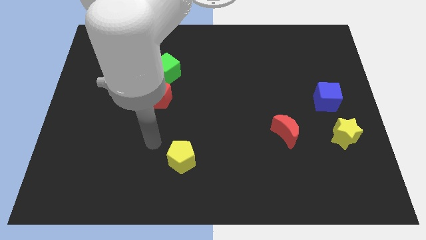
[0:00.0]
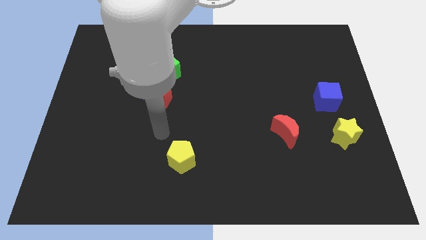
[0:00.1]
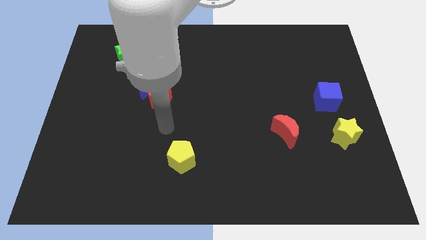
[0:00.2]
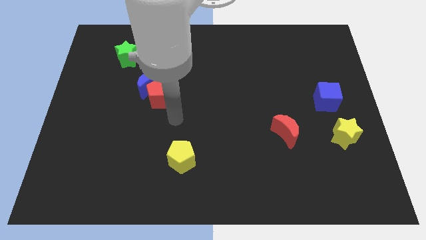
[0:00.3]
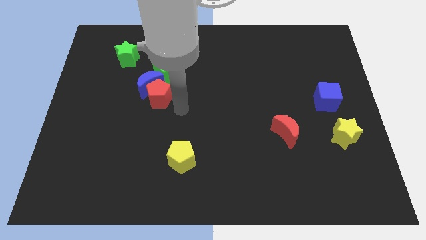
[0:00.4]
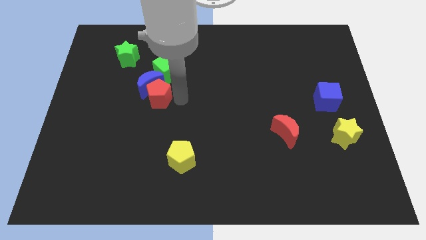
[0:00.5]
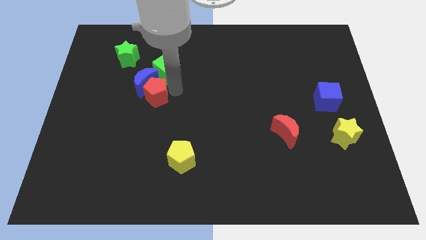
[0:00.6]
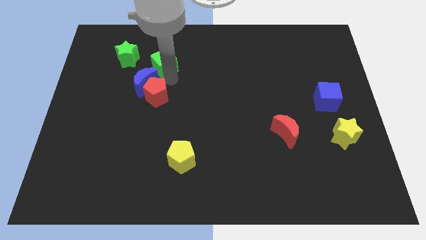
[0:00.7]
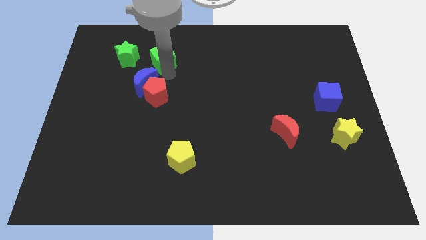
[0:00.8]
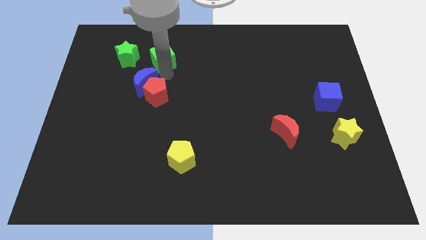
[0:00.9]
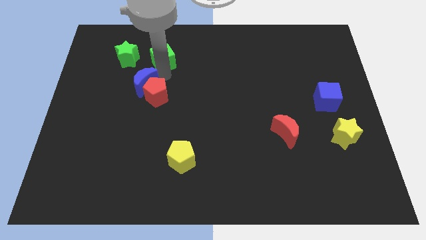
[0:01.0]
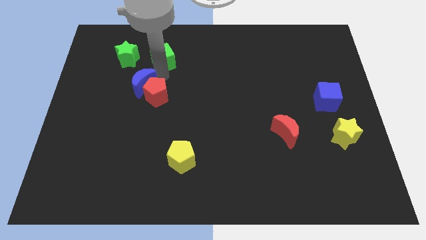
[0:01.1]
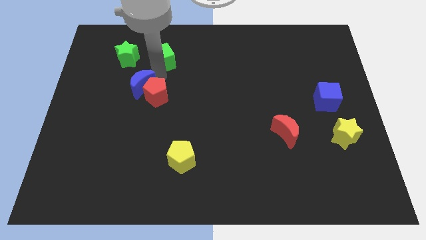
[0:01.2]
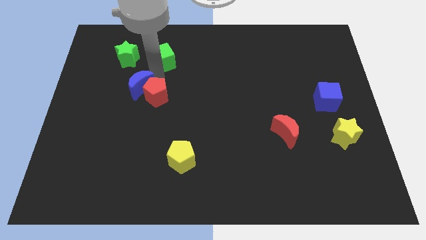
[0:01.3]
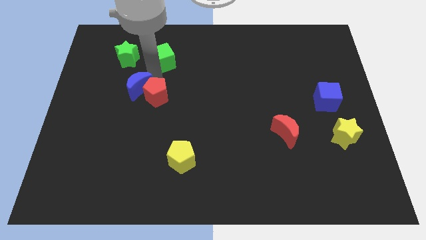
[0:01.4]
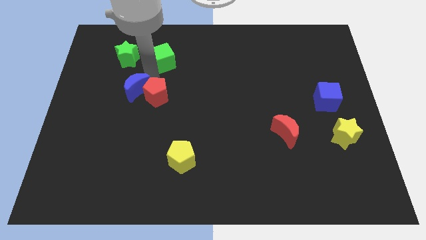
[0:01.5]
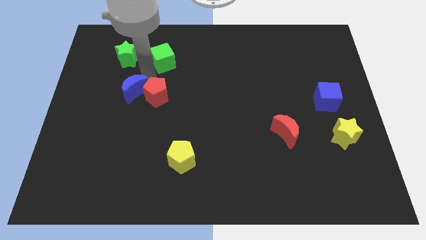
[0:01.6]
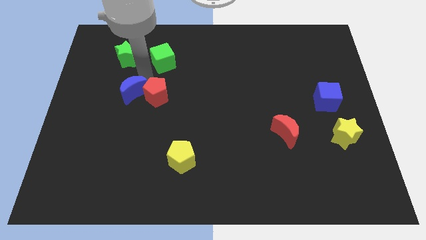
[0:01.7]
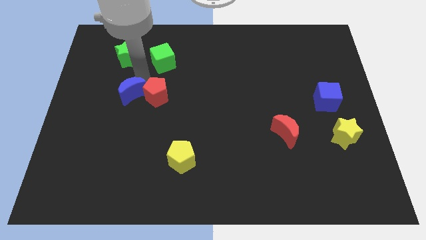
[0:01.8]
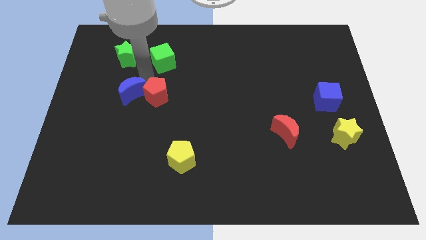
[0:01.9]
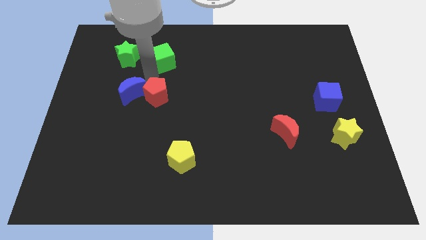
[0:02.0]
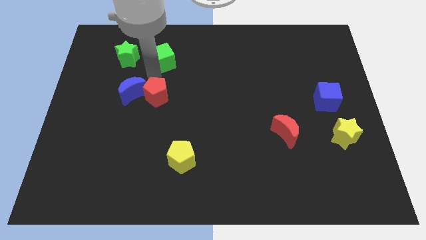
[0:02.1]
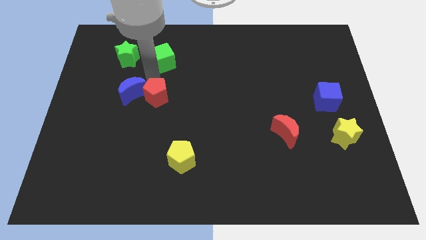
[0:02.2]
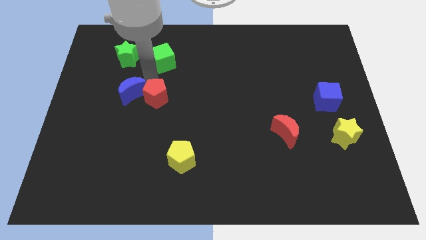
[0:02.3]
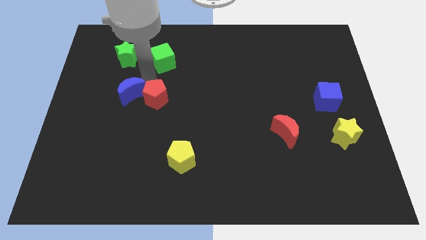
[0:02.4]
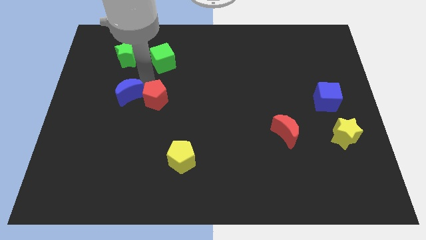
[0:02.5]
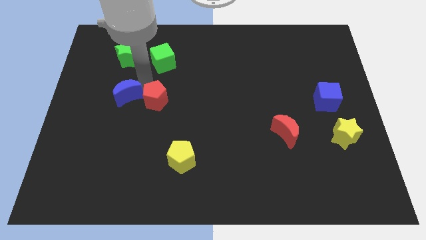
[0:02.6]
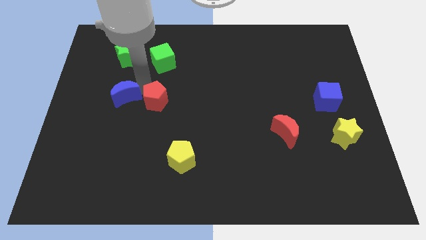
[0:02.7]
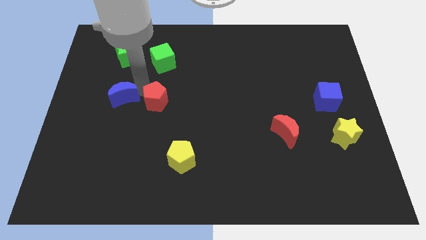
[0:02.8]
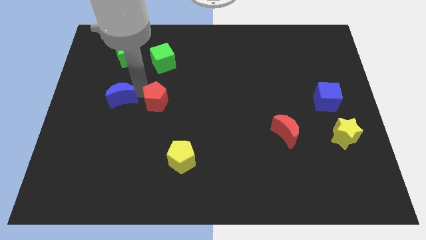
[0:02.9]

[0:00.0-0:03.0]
separate the blue moon from the red pentagon and green cube

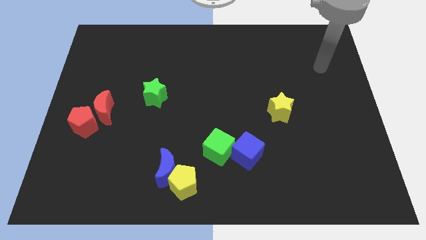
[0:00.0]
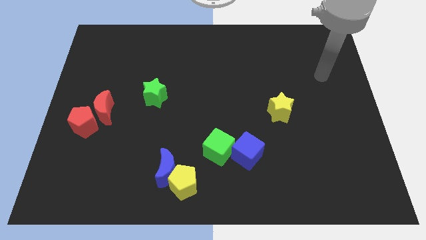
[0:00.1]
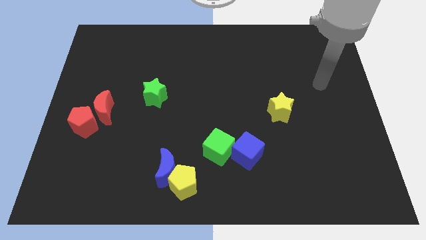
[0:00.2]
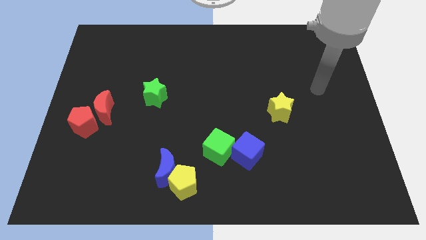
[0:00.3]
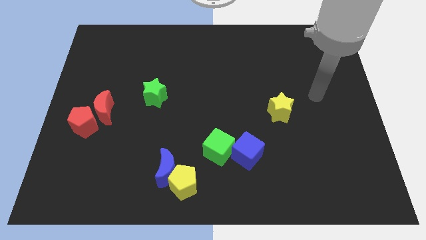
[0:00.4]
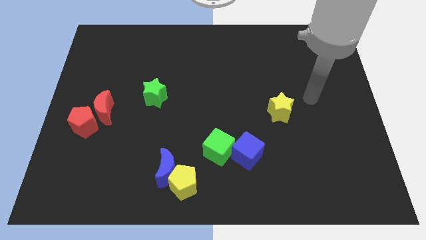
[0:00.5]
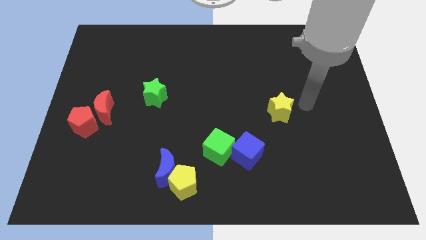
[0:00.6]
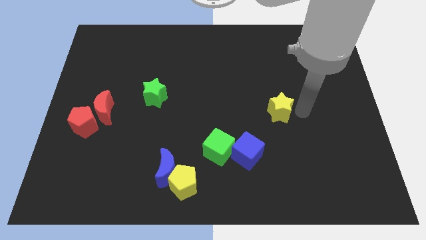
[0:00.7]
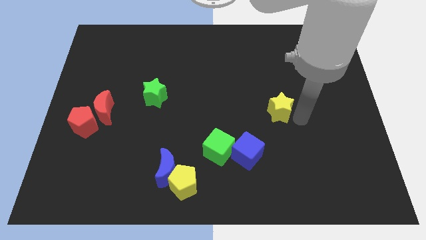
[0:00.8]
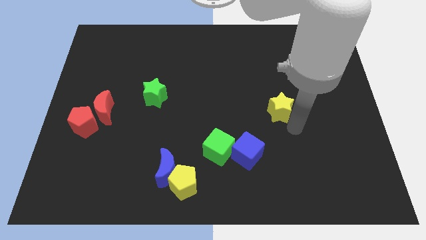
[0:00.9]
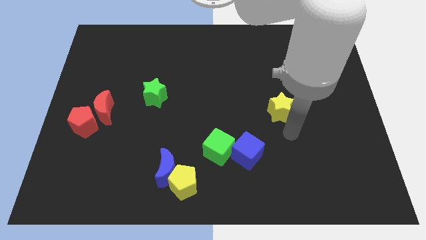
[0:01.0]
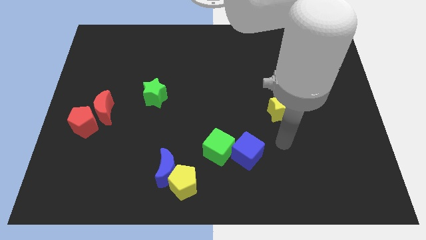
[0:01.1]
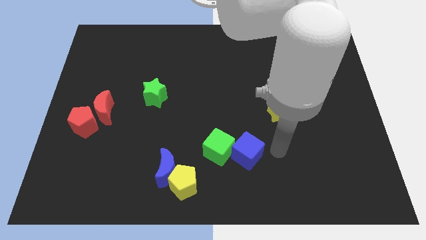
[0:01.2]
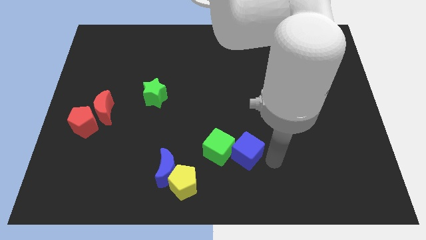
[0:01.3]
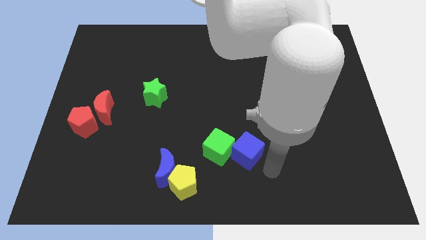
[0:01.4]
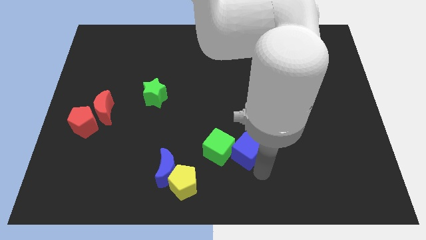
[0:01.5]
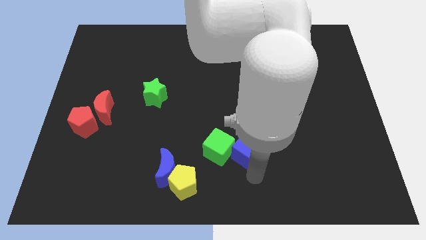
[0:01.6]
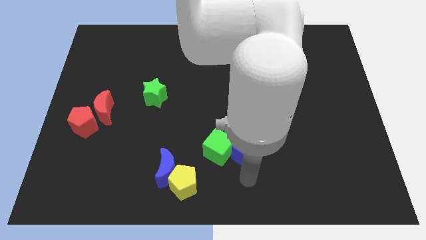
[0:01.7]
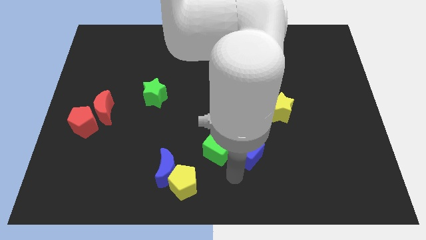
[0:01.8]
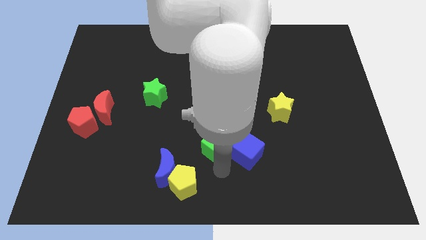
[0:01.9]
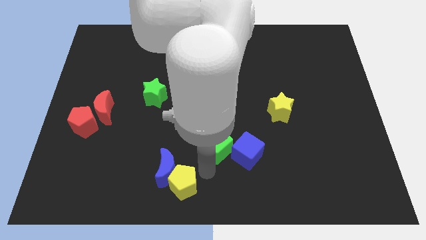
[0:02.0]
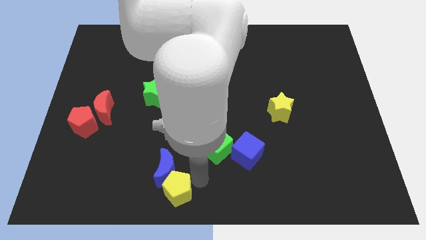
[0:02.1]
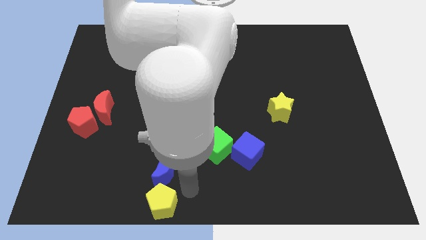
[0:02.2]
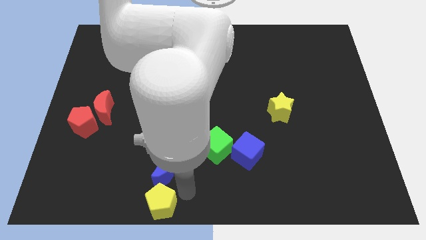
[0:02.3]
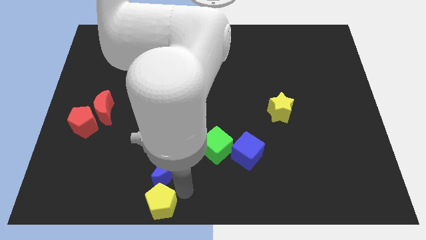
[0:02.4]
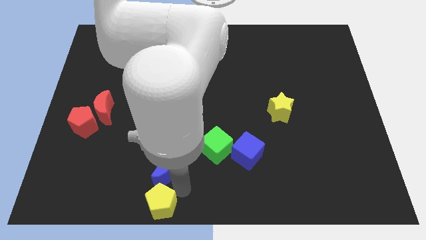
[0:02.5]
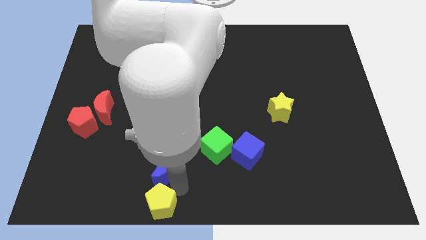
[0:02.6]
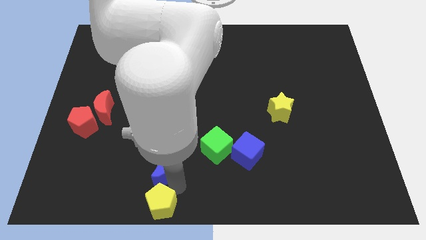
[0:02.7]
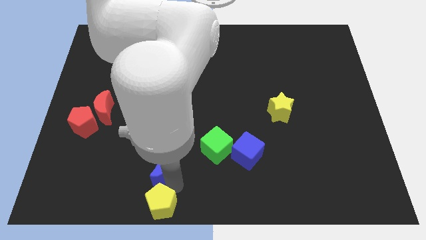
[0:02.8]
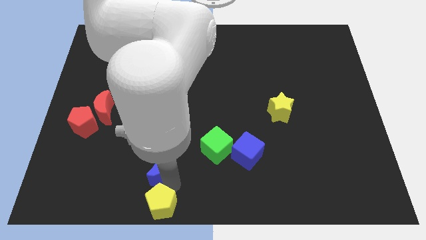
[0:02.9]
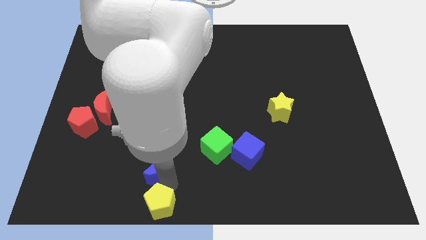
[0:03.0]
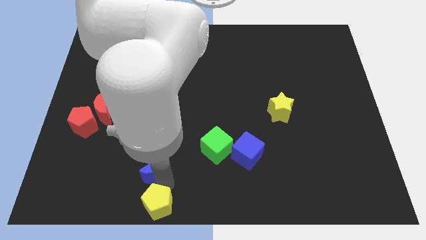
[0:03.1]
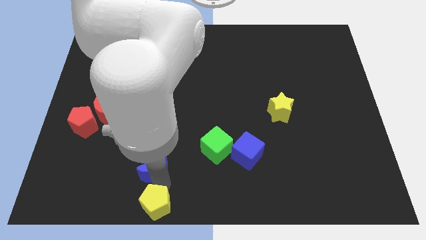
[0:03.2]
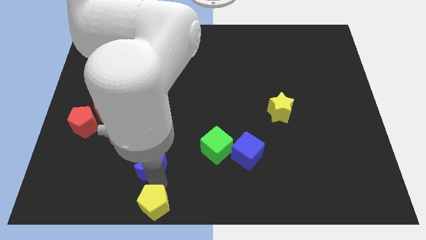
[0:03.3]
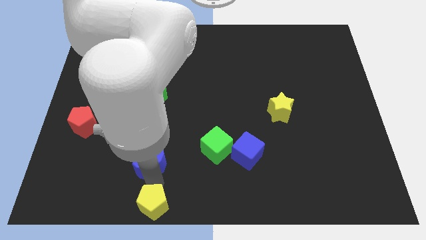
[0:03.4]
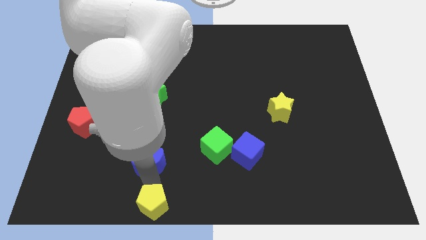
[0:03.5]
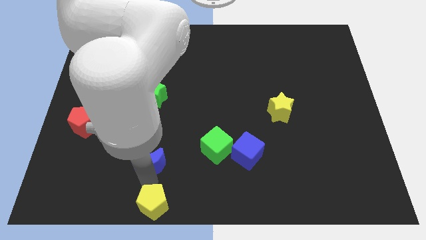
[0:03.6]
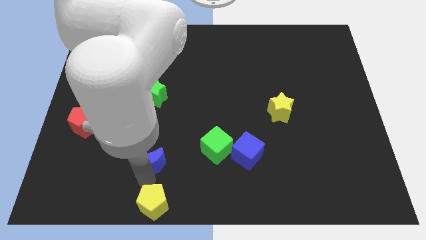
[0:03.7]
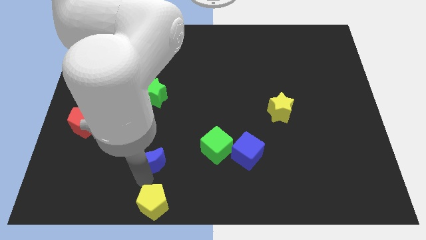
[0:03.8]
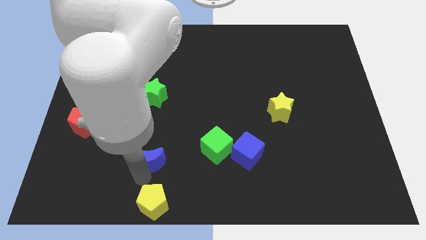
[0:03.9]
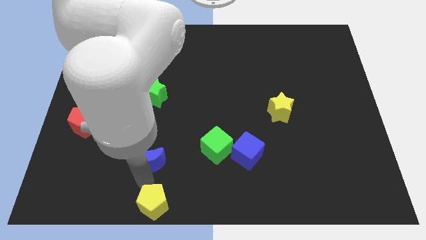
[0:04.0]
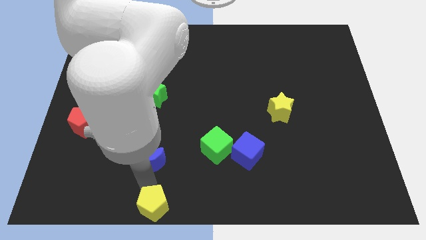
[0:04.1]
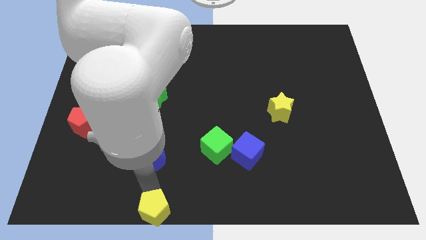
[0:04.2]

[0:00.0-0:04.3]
separate the blue moon from the yellow pentagon

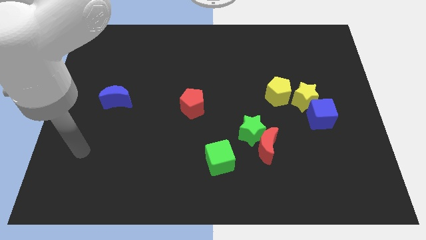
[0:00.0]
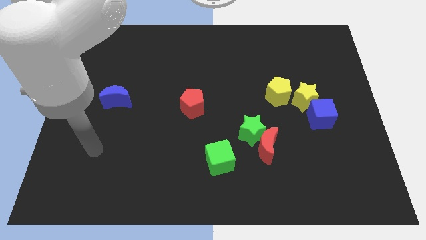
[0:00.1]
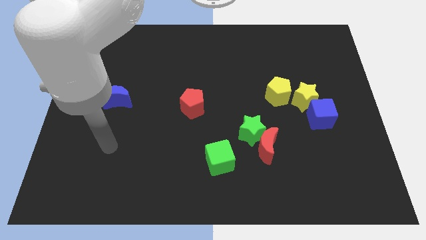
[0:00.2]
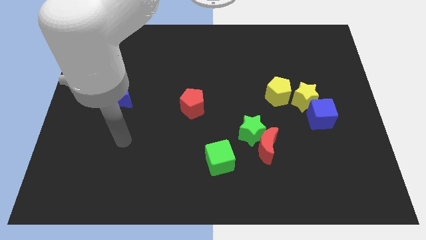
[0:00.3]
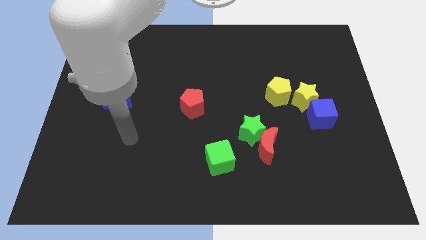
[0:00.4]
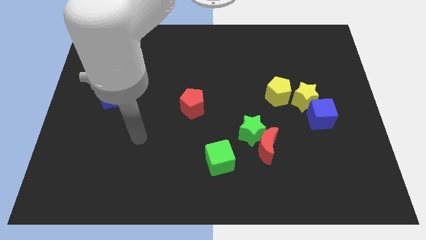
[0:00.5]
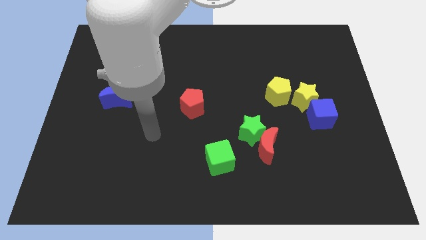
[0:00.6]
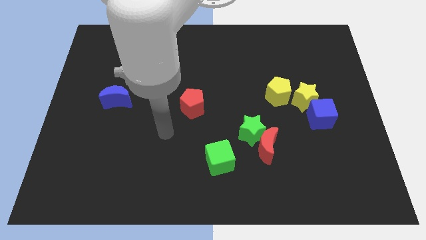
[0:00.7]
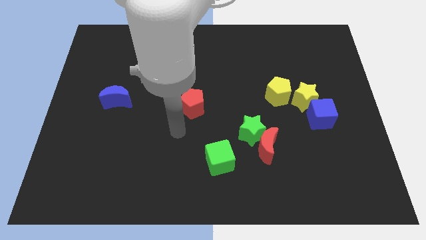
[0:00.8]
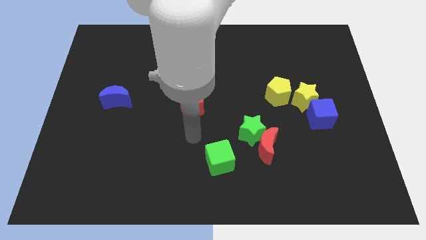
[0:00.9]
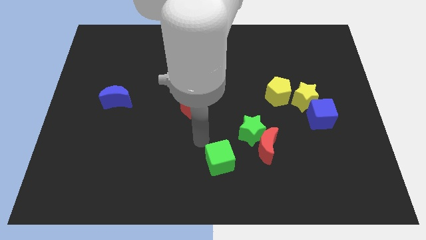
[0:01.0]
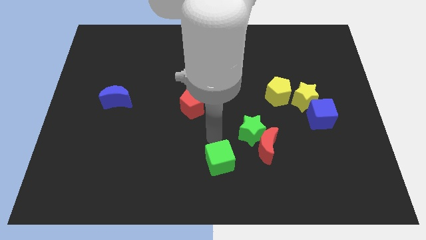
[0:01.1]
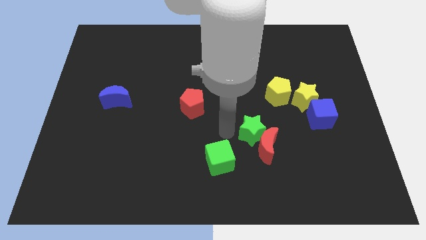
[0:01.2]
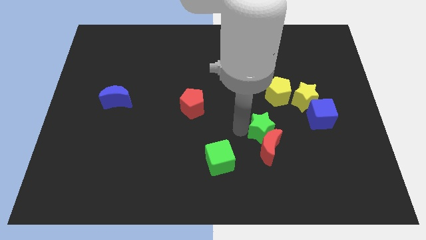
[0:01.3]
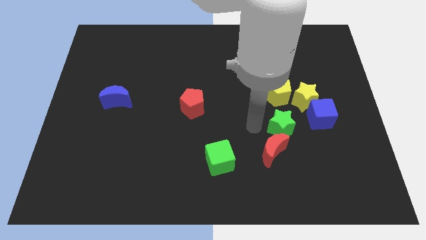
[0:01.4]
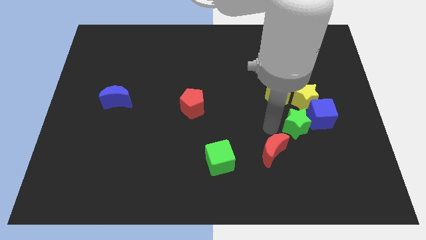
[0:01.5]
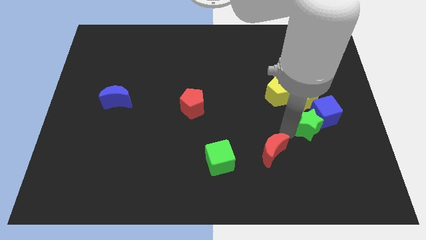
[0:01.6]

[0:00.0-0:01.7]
separate the red moon from the green star

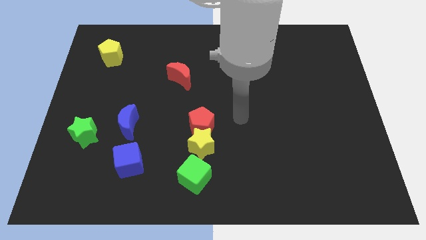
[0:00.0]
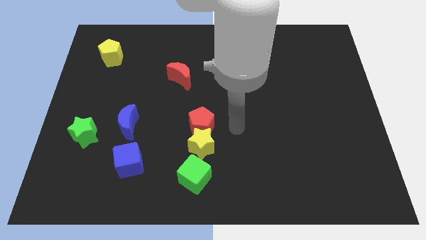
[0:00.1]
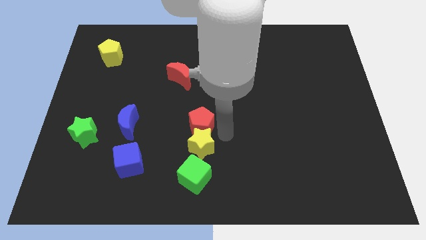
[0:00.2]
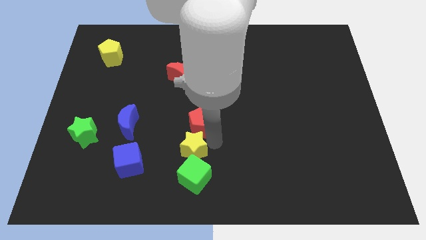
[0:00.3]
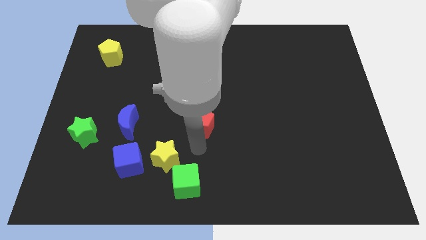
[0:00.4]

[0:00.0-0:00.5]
move the red pentagon away from the yellow star
